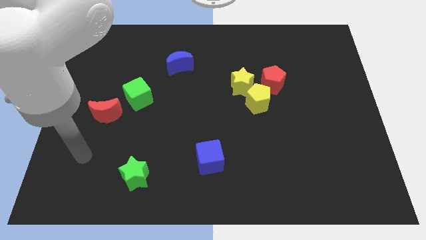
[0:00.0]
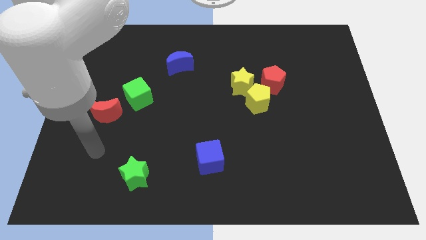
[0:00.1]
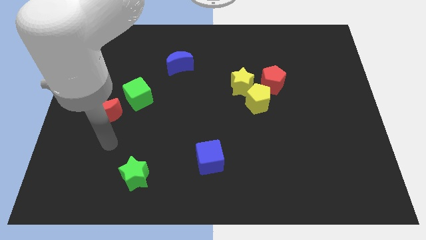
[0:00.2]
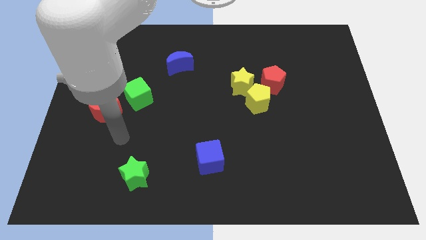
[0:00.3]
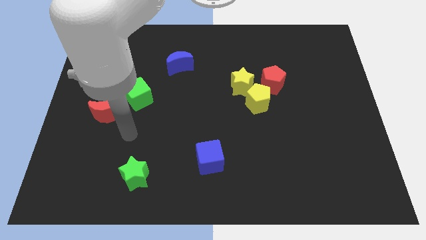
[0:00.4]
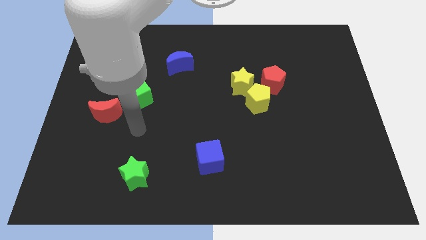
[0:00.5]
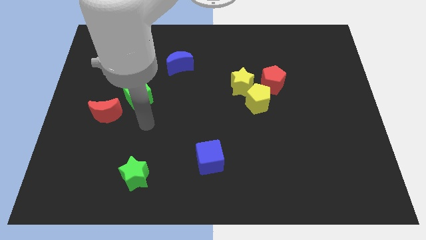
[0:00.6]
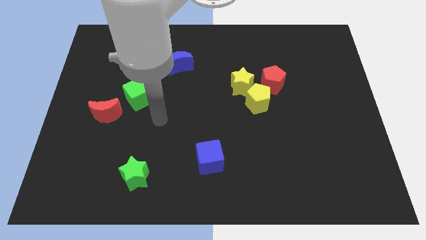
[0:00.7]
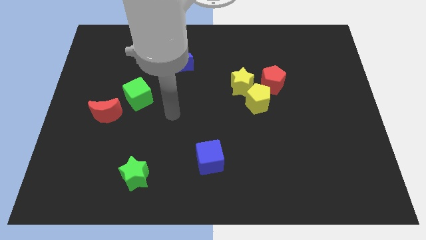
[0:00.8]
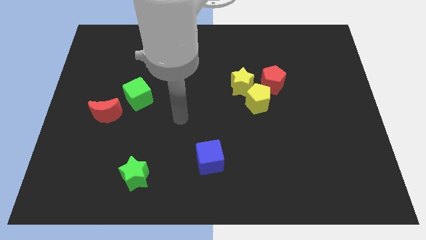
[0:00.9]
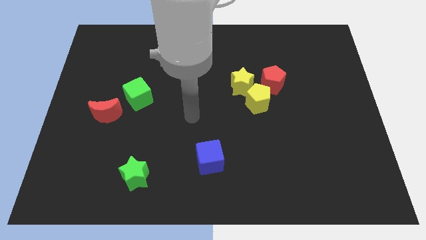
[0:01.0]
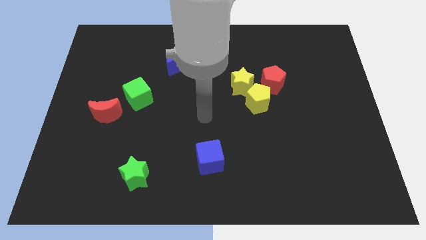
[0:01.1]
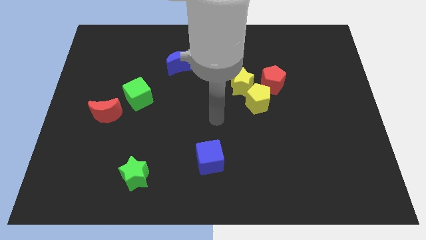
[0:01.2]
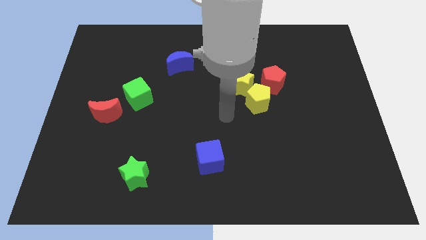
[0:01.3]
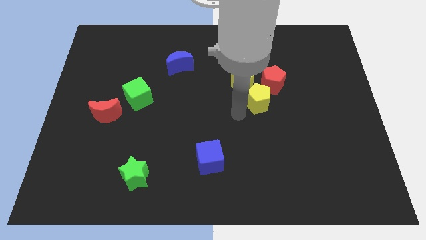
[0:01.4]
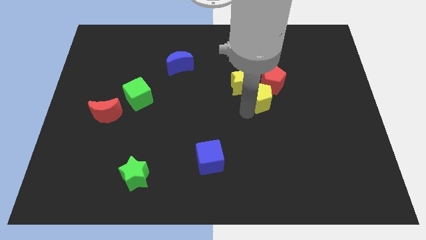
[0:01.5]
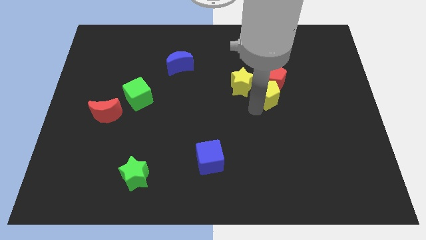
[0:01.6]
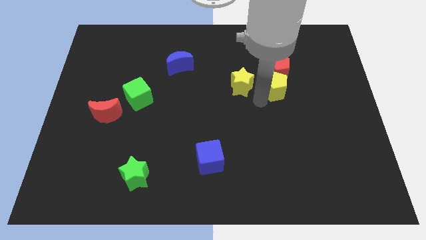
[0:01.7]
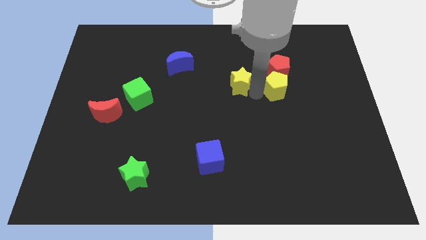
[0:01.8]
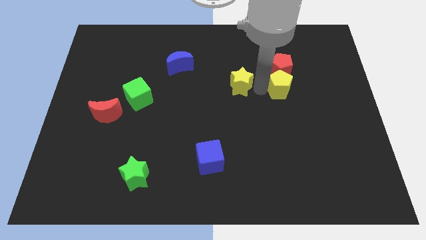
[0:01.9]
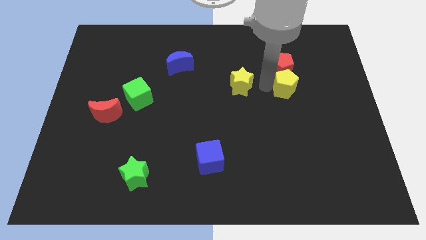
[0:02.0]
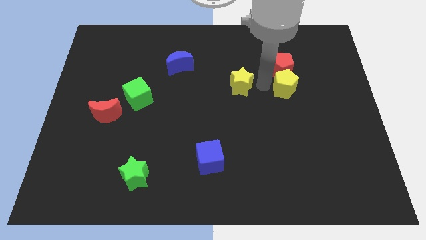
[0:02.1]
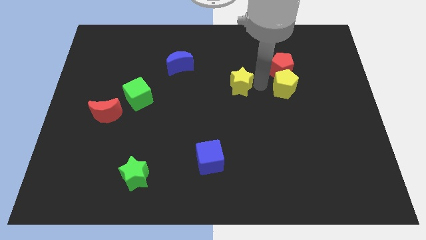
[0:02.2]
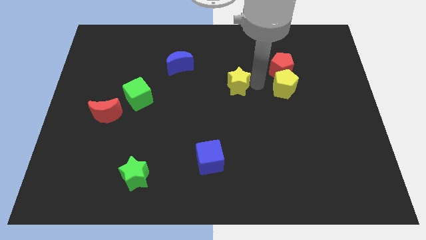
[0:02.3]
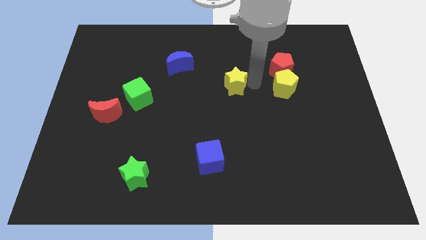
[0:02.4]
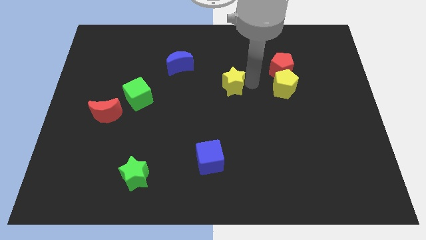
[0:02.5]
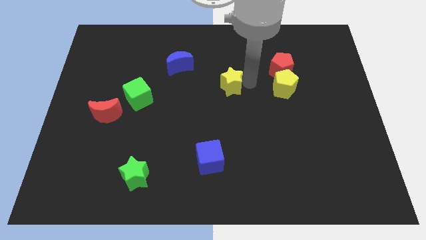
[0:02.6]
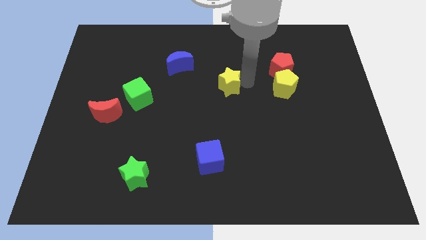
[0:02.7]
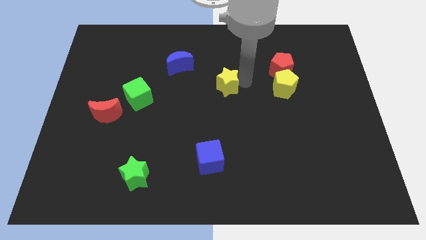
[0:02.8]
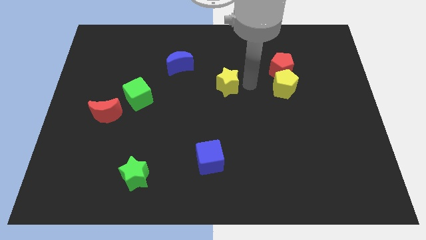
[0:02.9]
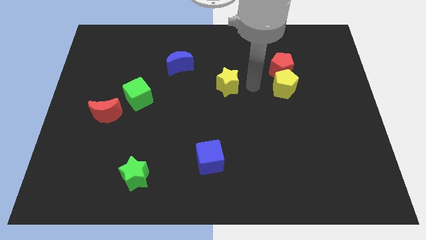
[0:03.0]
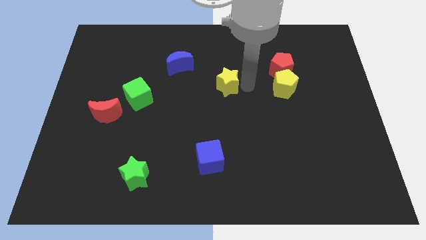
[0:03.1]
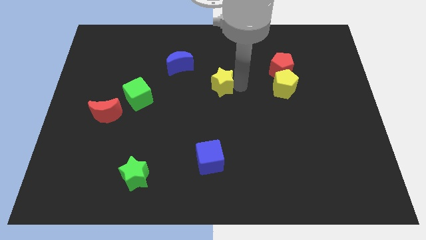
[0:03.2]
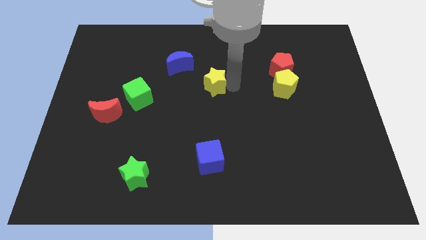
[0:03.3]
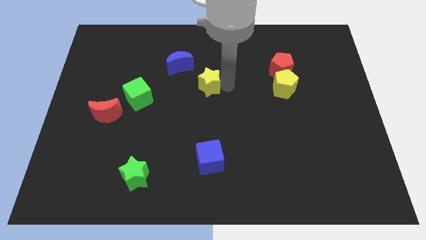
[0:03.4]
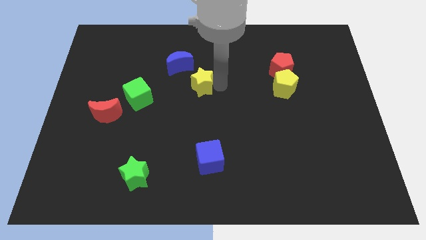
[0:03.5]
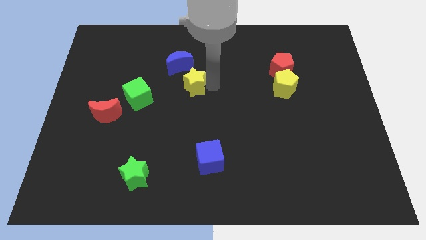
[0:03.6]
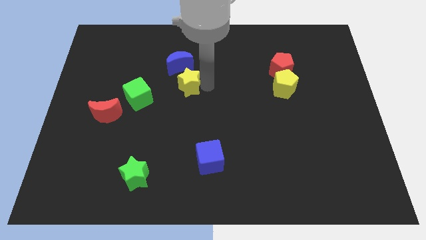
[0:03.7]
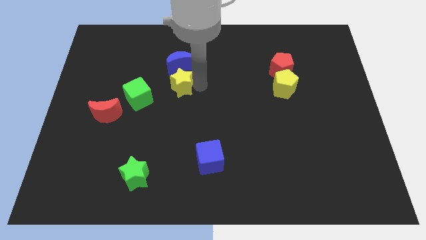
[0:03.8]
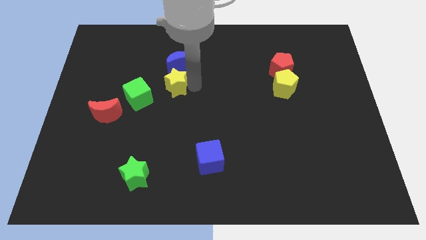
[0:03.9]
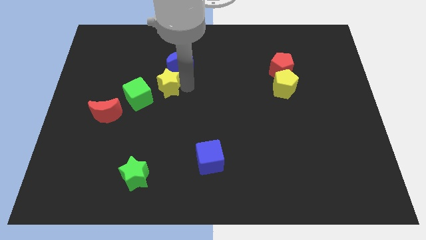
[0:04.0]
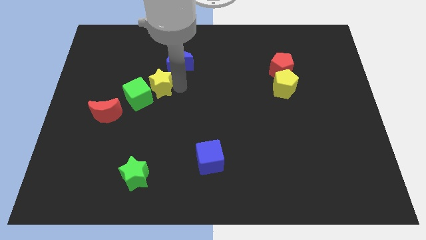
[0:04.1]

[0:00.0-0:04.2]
move the yellow star left

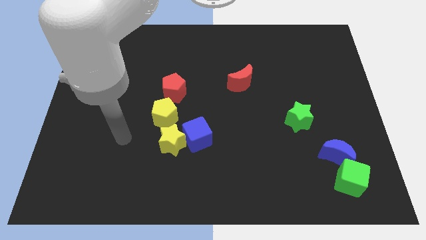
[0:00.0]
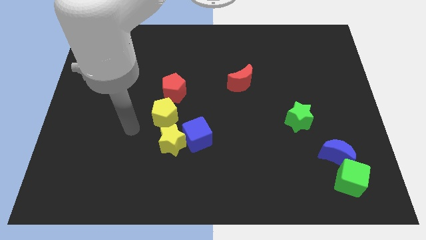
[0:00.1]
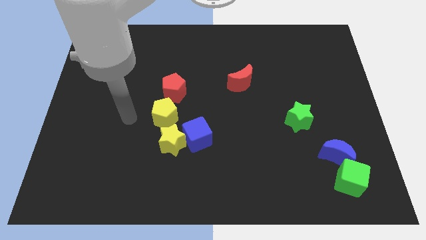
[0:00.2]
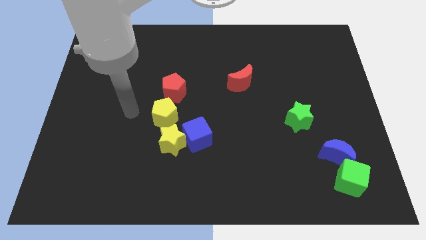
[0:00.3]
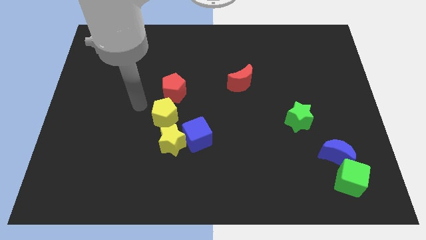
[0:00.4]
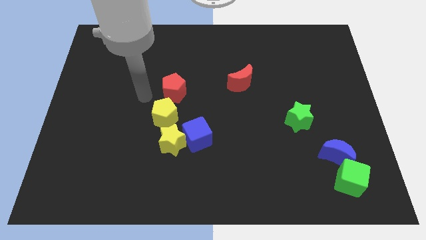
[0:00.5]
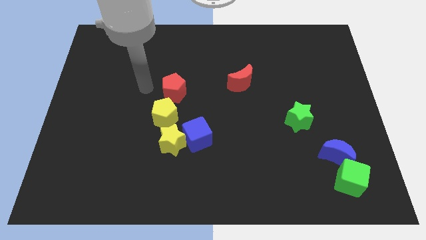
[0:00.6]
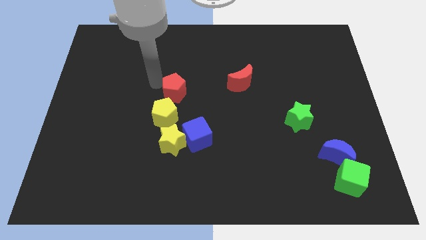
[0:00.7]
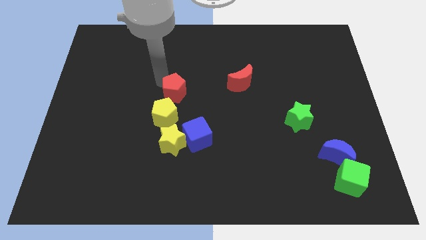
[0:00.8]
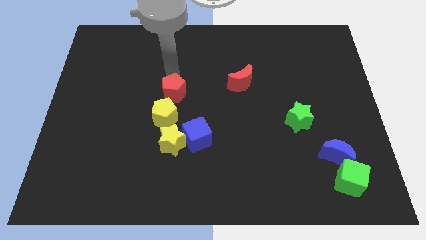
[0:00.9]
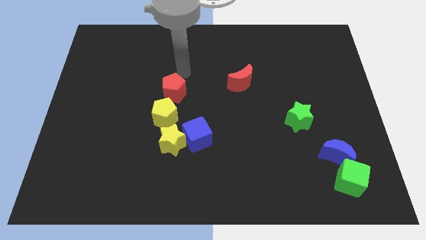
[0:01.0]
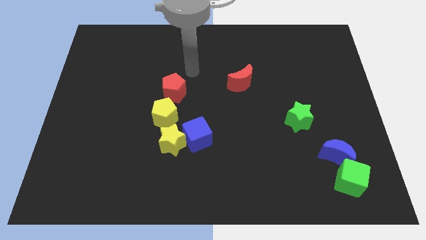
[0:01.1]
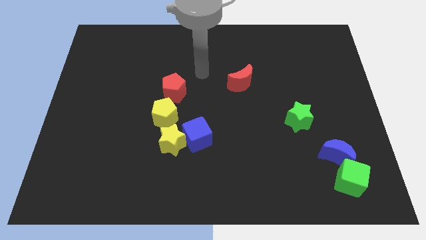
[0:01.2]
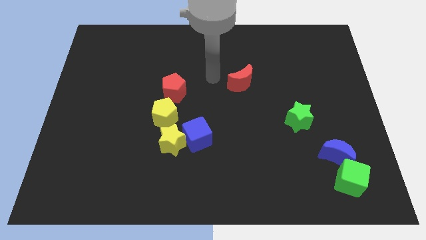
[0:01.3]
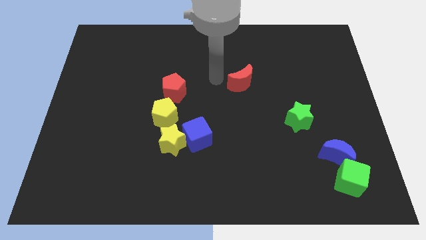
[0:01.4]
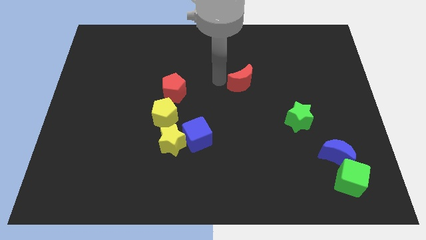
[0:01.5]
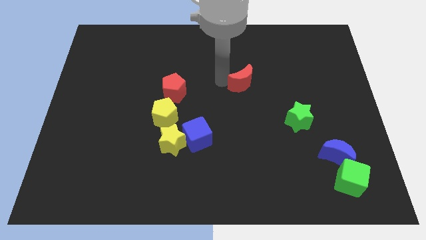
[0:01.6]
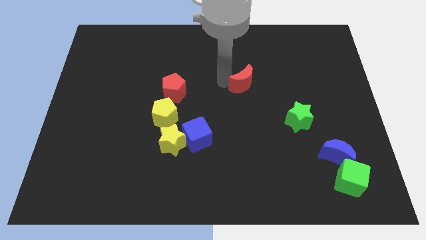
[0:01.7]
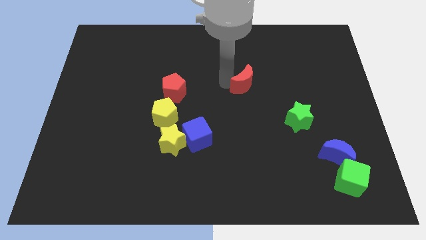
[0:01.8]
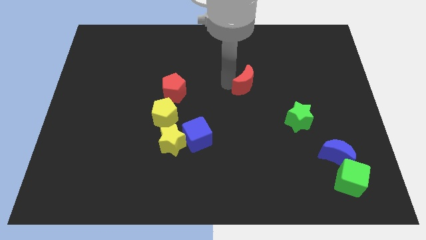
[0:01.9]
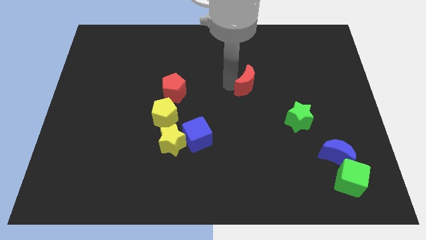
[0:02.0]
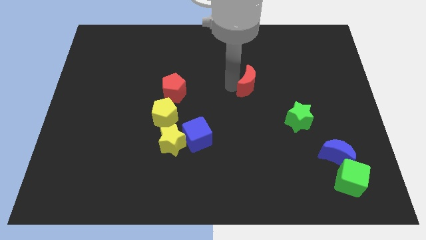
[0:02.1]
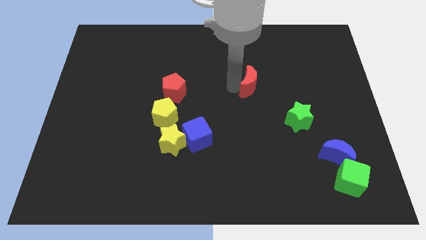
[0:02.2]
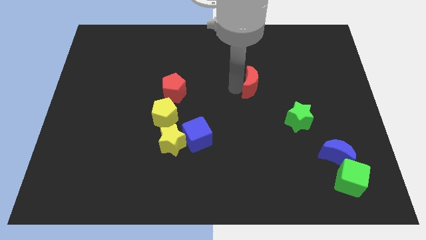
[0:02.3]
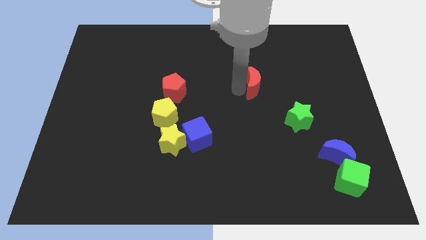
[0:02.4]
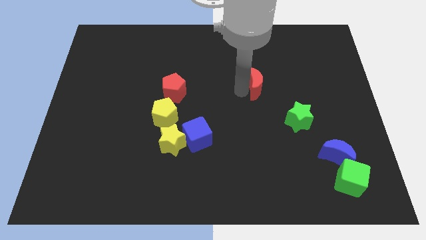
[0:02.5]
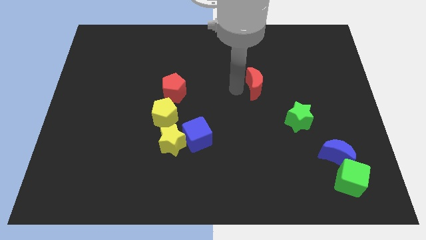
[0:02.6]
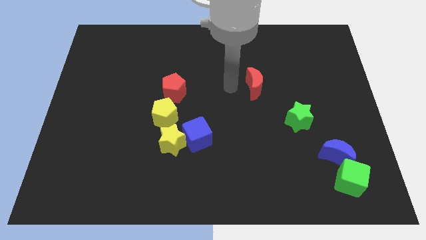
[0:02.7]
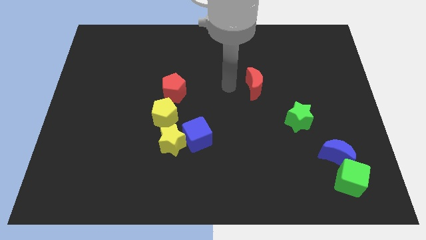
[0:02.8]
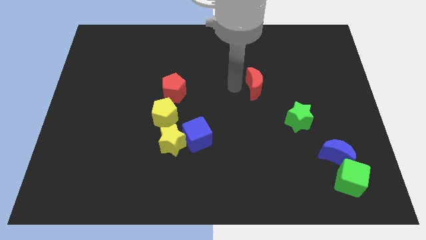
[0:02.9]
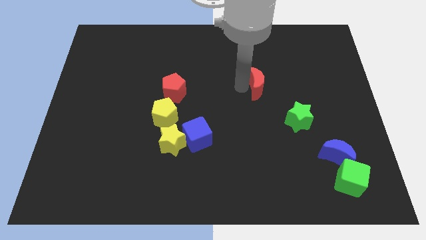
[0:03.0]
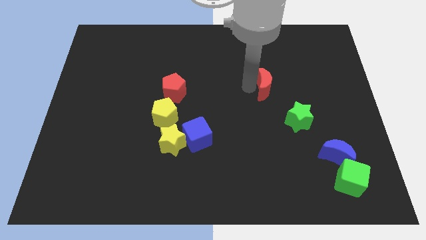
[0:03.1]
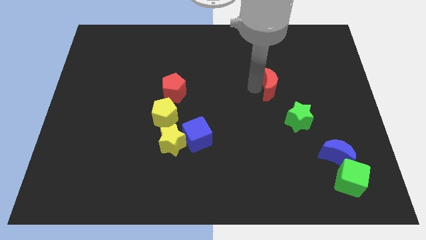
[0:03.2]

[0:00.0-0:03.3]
move the red moon right somewhat

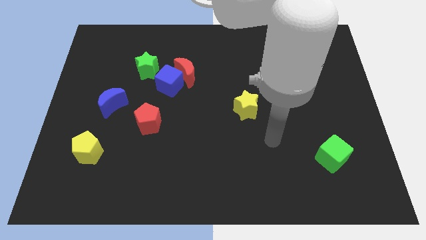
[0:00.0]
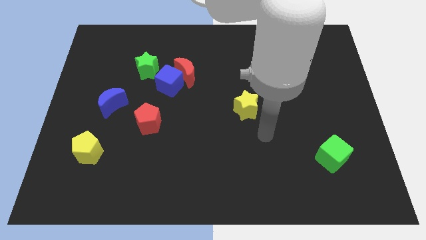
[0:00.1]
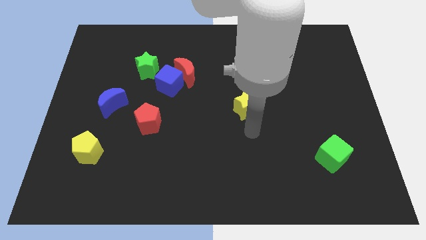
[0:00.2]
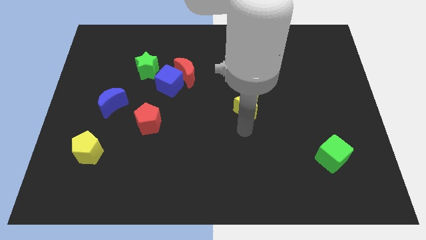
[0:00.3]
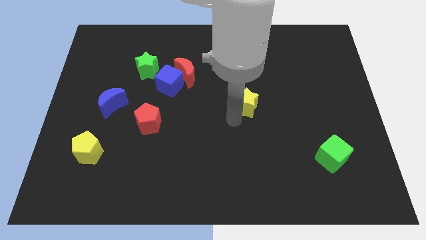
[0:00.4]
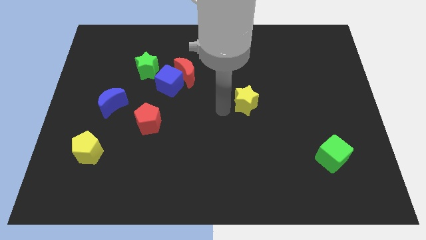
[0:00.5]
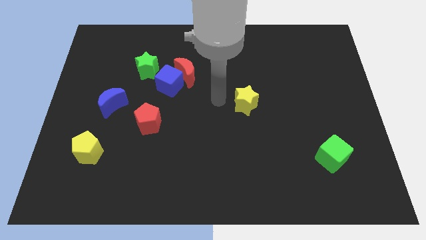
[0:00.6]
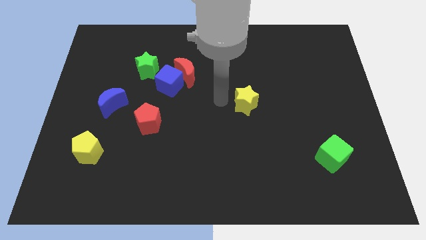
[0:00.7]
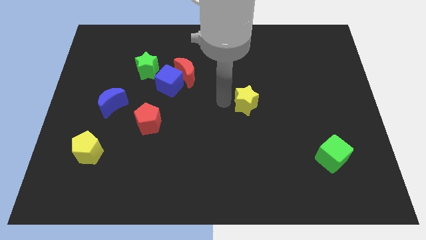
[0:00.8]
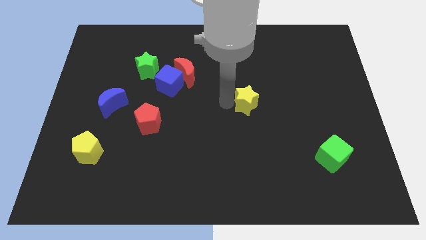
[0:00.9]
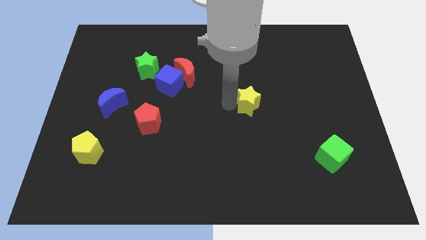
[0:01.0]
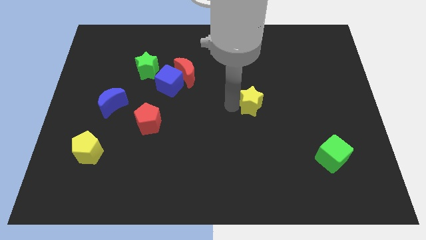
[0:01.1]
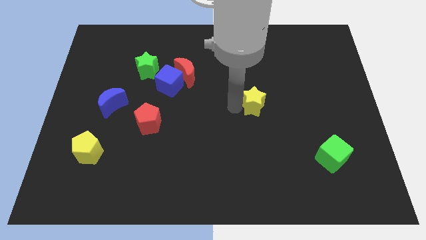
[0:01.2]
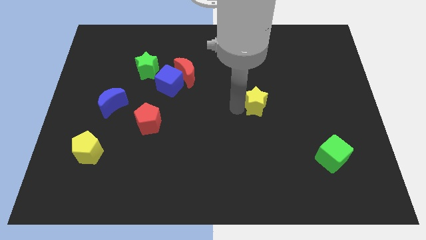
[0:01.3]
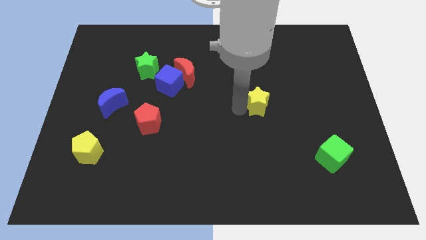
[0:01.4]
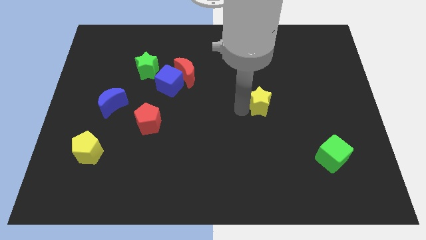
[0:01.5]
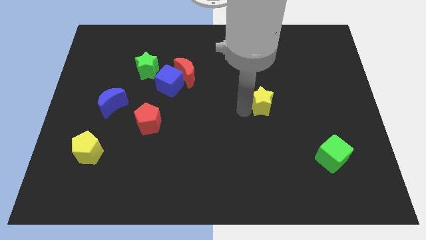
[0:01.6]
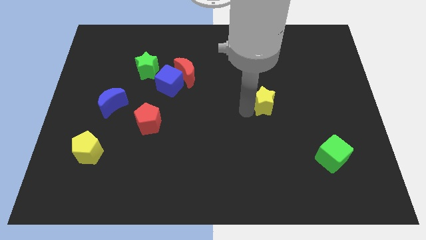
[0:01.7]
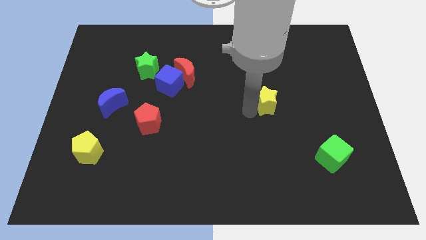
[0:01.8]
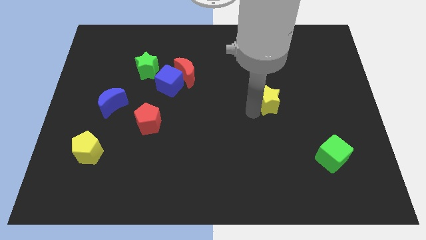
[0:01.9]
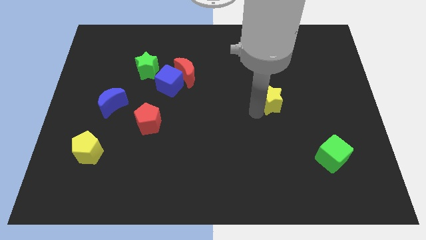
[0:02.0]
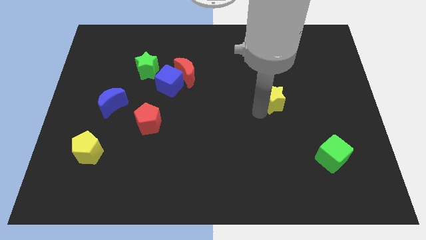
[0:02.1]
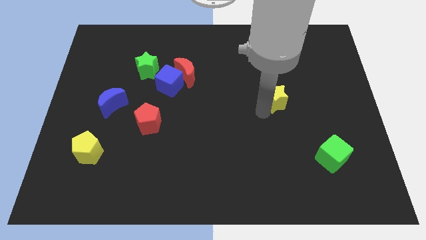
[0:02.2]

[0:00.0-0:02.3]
slightly slide the yellow star to the right
